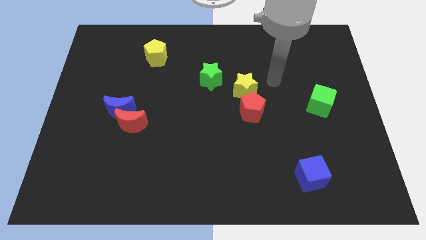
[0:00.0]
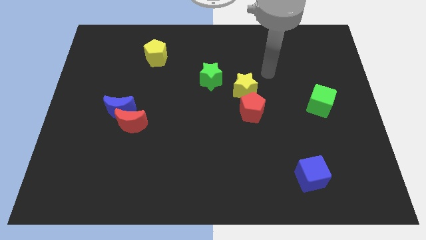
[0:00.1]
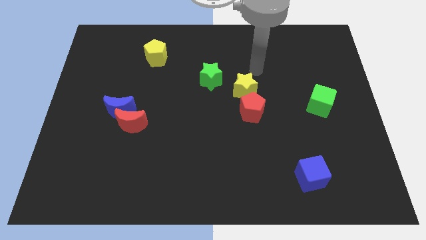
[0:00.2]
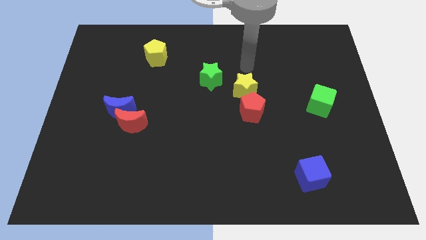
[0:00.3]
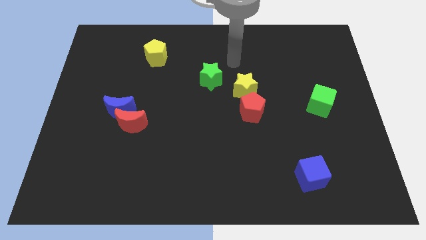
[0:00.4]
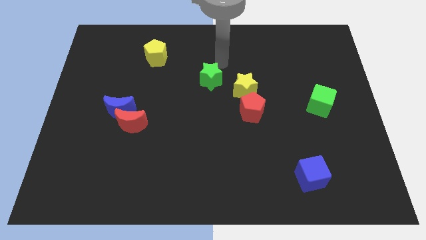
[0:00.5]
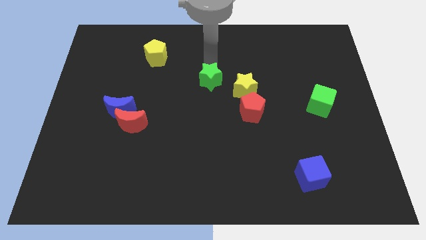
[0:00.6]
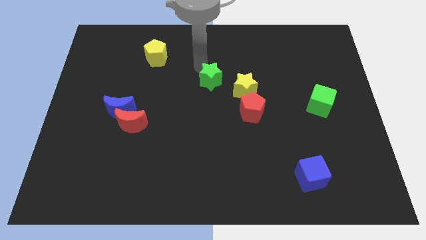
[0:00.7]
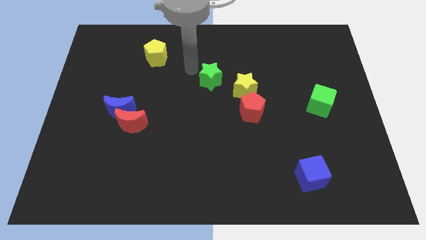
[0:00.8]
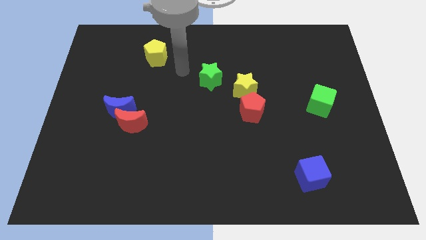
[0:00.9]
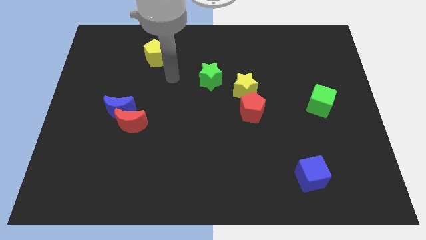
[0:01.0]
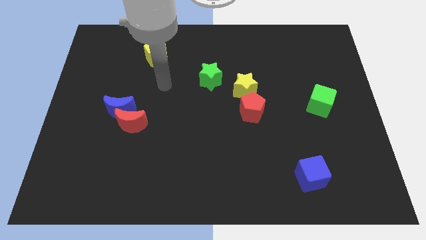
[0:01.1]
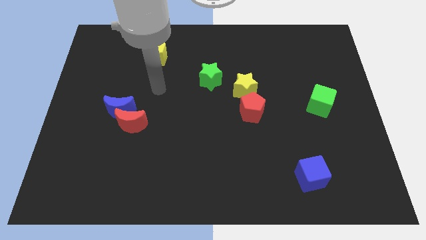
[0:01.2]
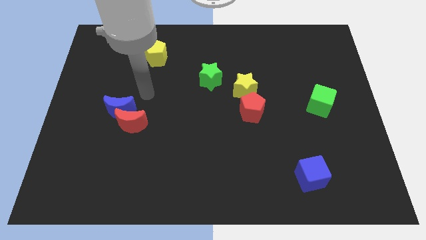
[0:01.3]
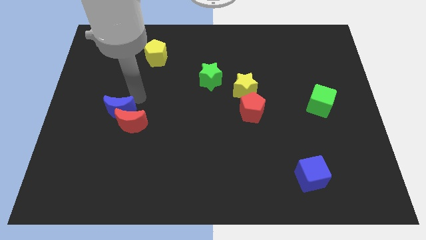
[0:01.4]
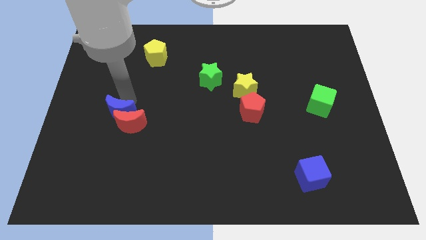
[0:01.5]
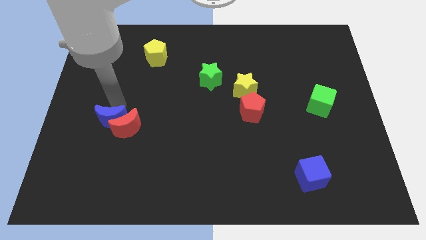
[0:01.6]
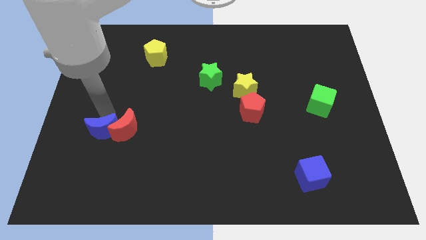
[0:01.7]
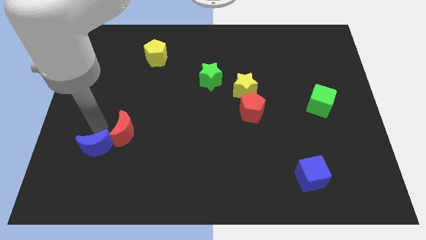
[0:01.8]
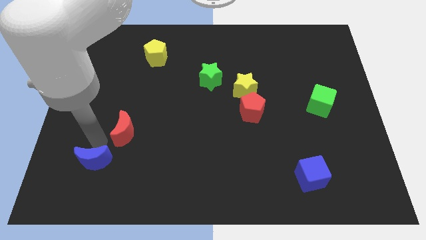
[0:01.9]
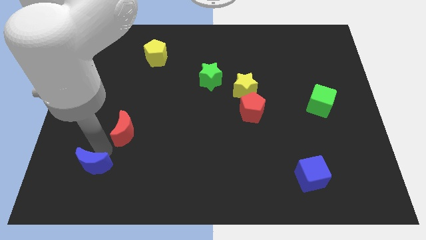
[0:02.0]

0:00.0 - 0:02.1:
pull the red moon apart from the blue moon

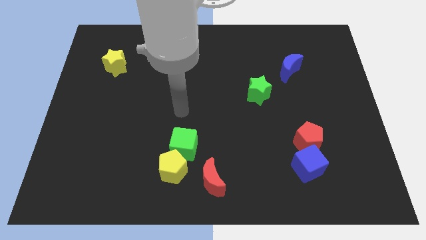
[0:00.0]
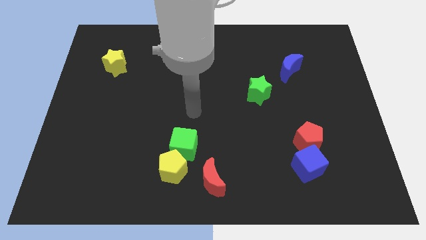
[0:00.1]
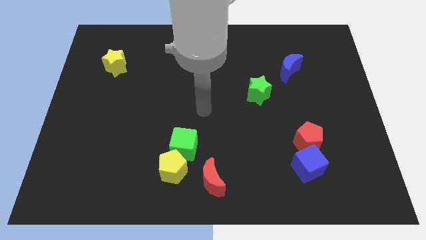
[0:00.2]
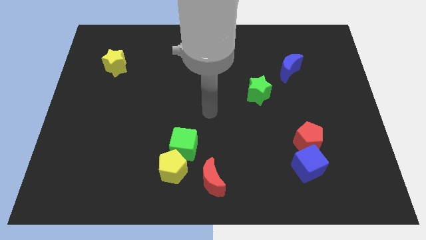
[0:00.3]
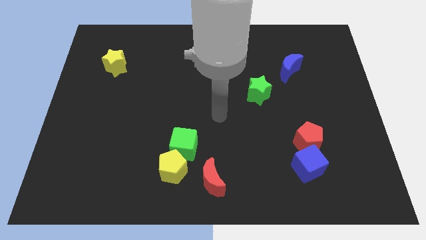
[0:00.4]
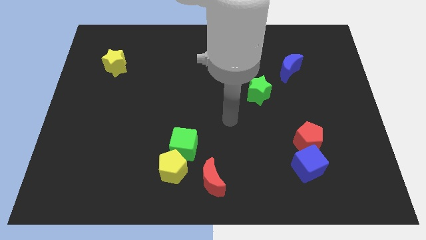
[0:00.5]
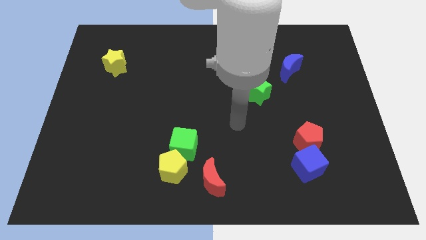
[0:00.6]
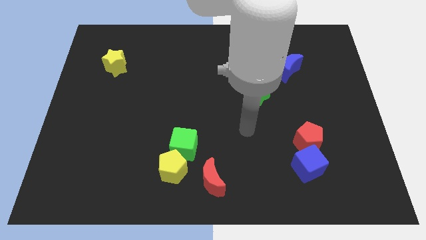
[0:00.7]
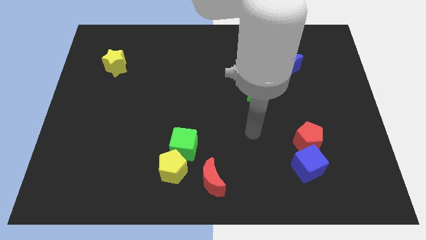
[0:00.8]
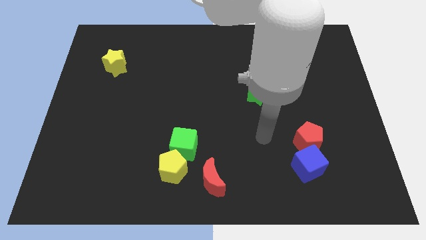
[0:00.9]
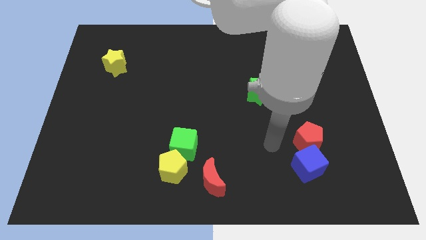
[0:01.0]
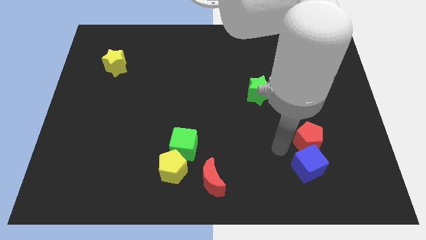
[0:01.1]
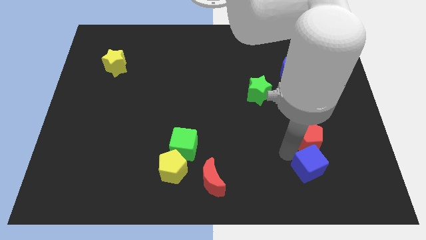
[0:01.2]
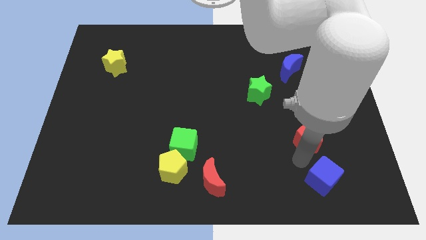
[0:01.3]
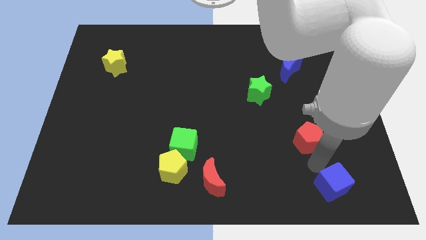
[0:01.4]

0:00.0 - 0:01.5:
pull the red pentagon apart from the blue cube

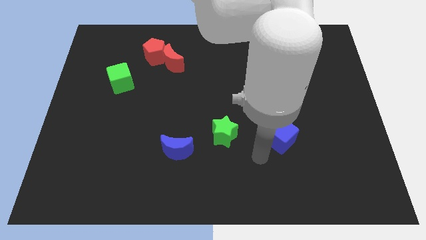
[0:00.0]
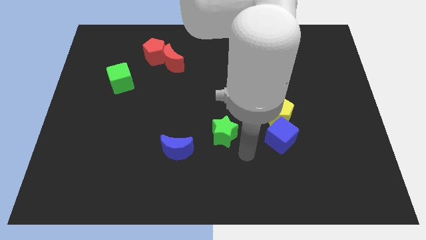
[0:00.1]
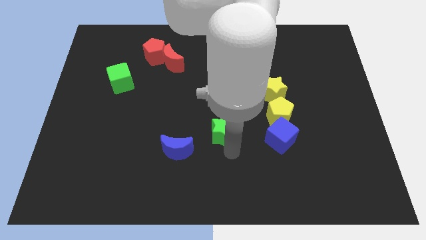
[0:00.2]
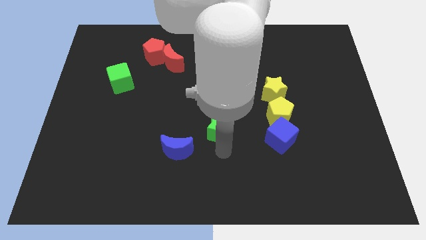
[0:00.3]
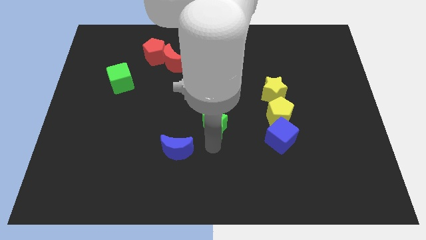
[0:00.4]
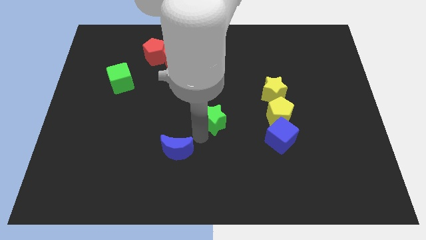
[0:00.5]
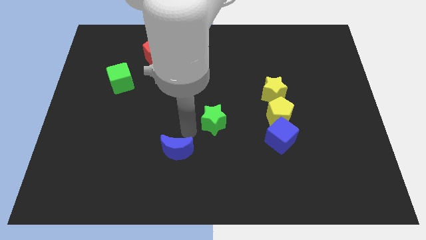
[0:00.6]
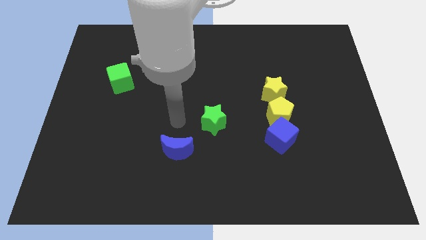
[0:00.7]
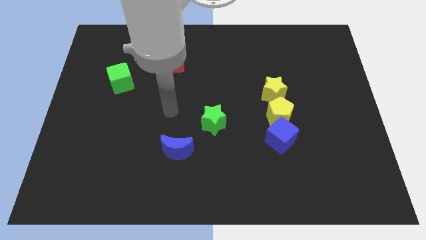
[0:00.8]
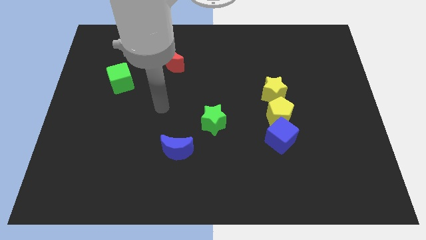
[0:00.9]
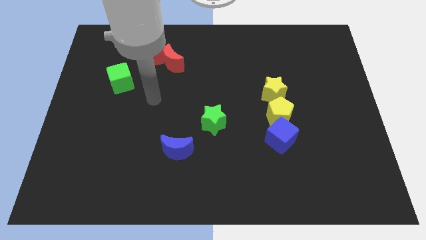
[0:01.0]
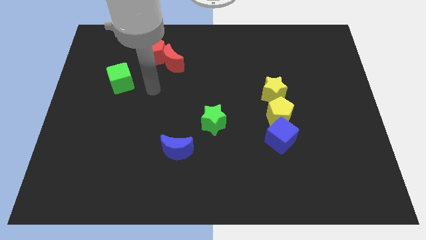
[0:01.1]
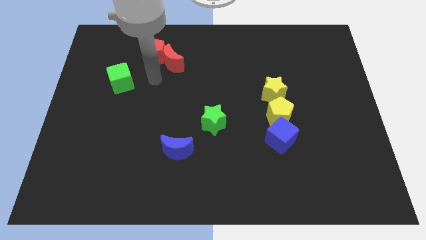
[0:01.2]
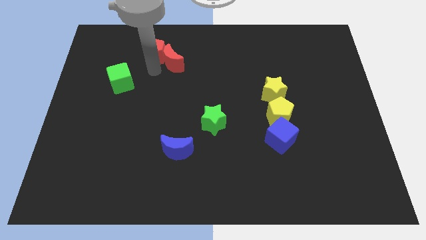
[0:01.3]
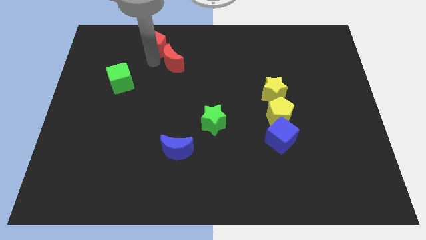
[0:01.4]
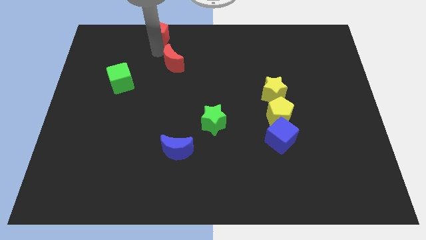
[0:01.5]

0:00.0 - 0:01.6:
pull the red moon apart from the red pentagon

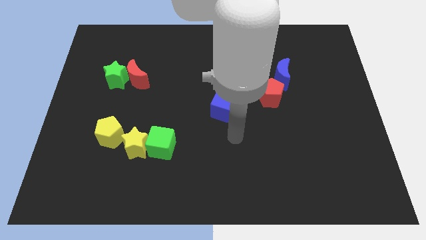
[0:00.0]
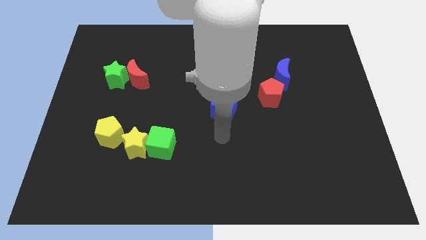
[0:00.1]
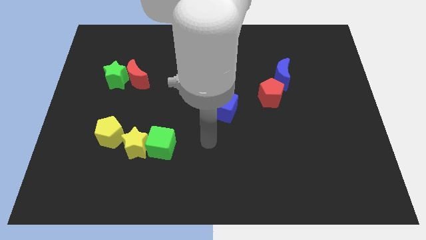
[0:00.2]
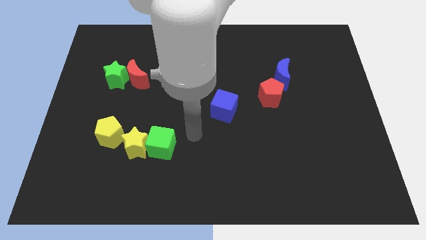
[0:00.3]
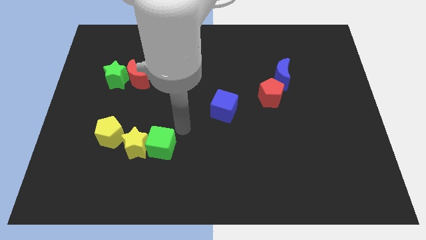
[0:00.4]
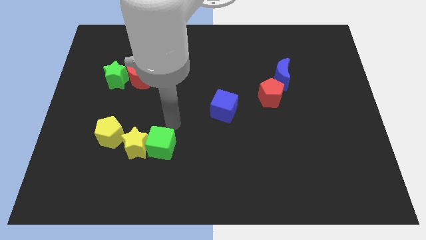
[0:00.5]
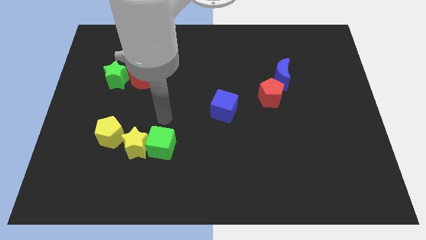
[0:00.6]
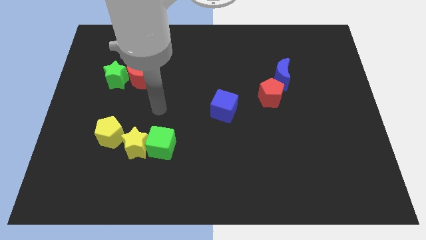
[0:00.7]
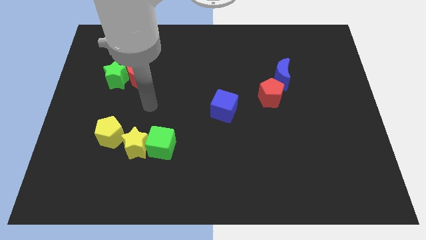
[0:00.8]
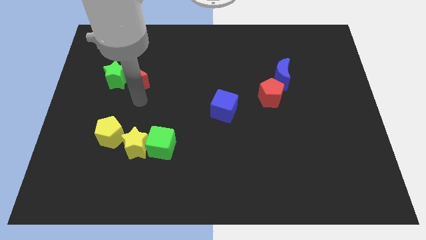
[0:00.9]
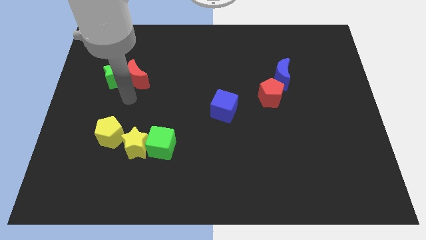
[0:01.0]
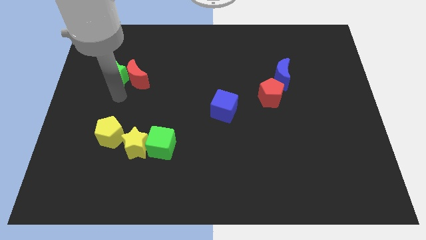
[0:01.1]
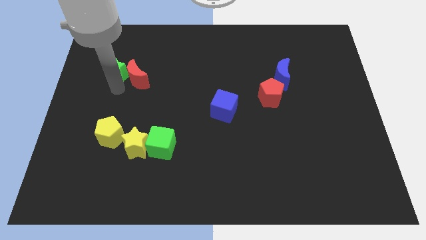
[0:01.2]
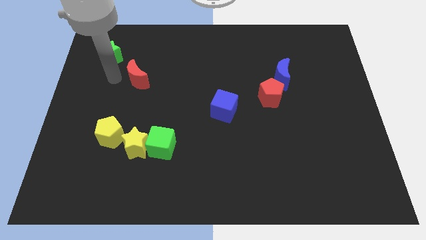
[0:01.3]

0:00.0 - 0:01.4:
move the red moon away from the green star

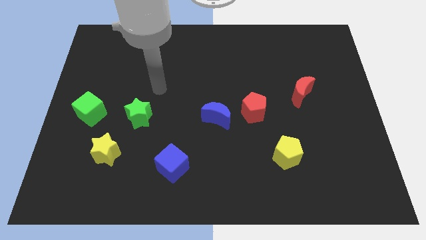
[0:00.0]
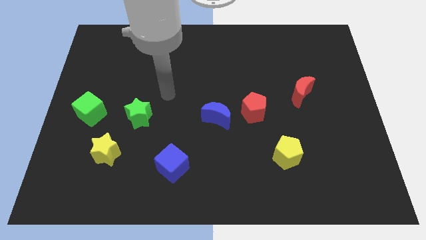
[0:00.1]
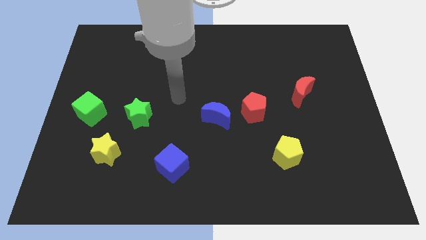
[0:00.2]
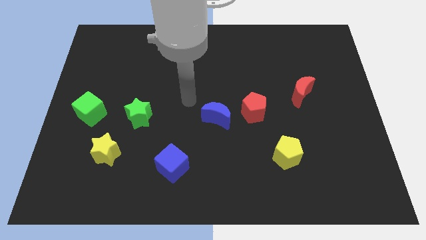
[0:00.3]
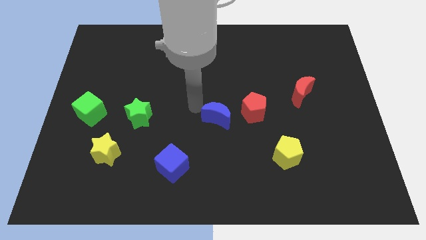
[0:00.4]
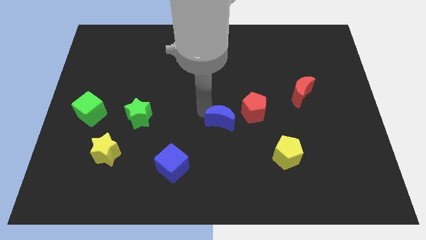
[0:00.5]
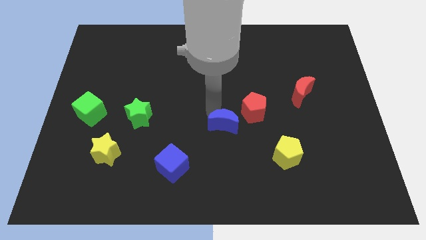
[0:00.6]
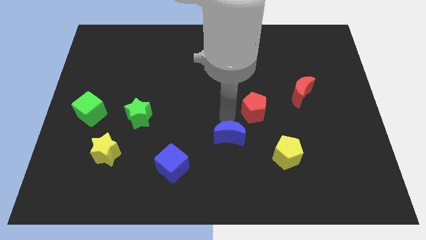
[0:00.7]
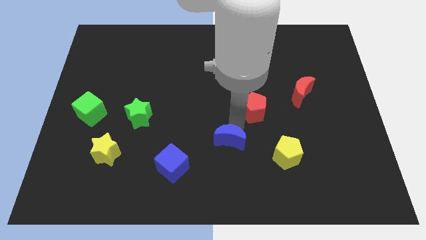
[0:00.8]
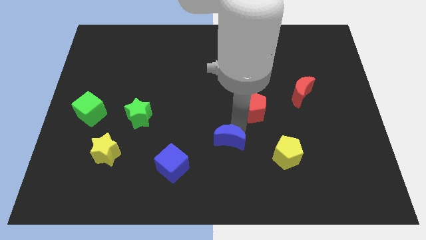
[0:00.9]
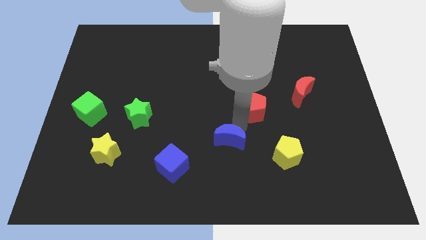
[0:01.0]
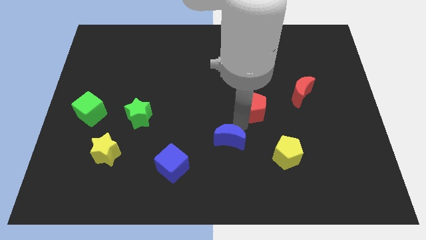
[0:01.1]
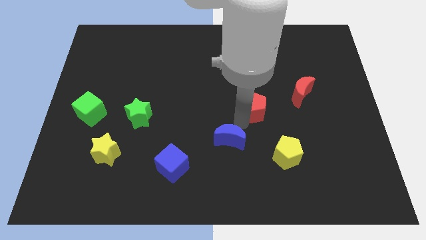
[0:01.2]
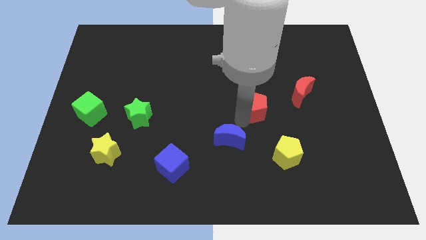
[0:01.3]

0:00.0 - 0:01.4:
separate the red pentagon from the blue moon

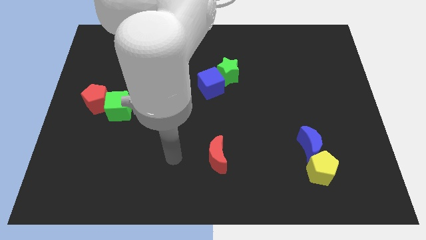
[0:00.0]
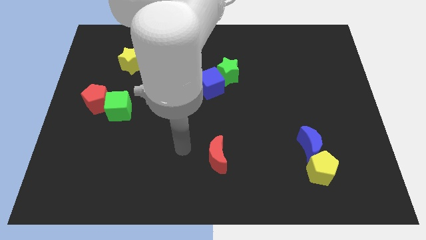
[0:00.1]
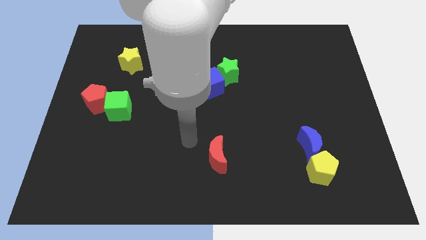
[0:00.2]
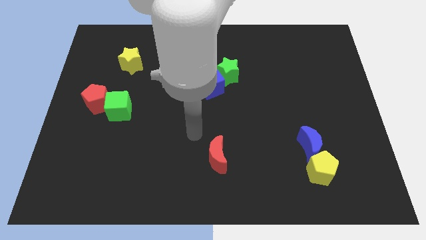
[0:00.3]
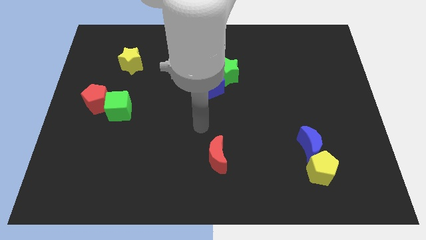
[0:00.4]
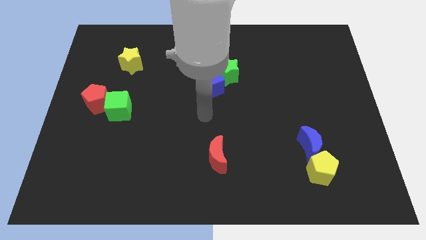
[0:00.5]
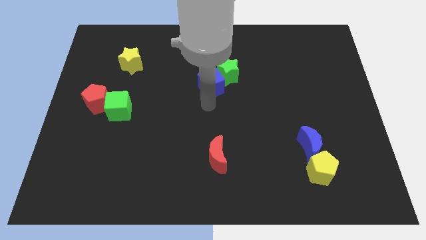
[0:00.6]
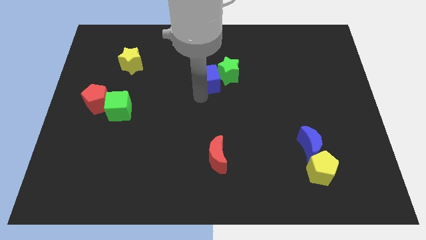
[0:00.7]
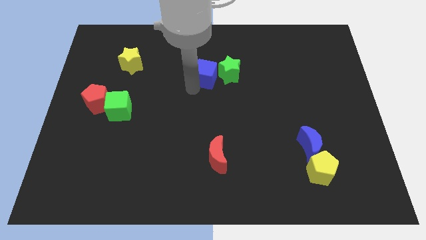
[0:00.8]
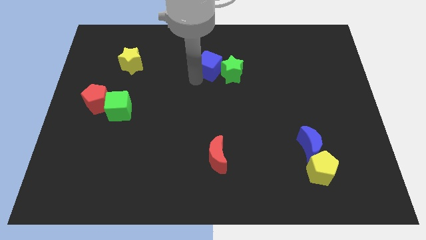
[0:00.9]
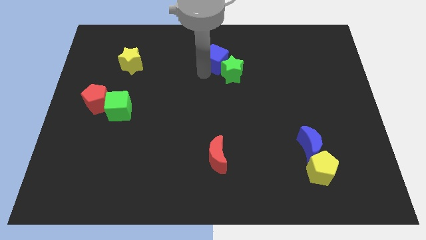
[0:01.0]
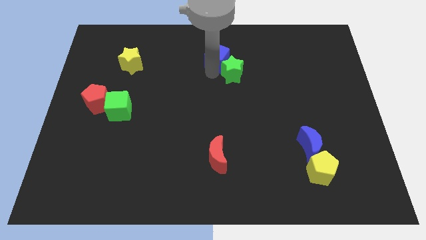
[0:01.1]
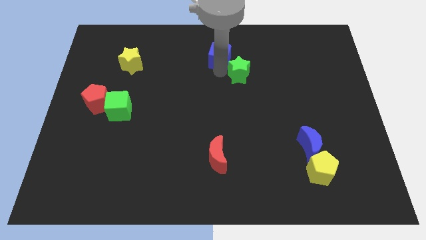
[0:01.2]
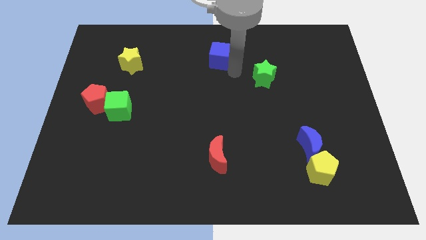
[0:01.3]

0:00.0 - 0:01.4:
move the blue cube away from the green star
